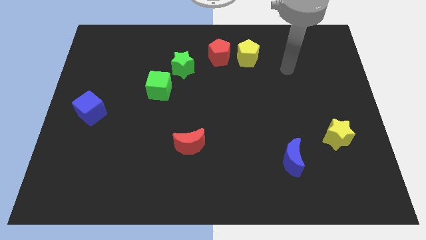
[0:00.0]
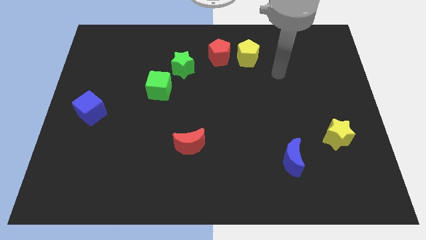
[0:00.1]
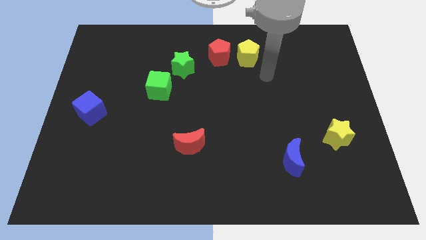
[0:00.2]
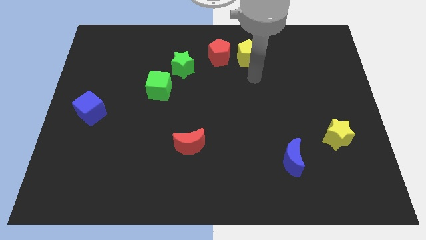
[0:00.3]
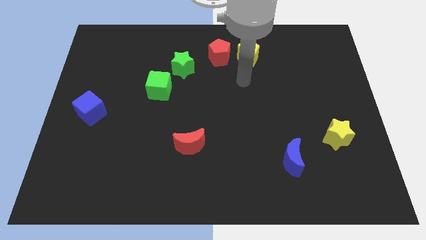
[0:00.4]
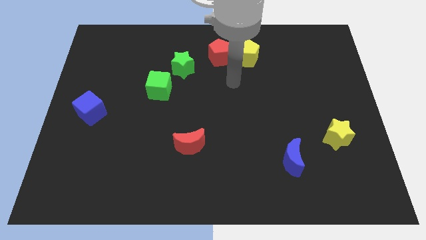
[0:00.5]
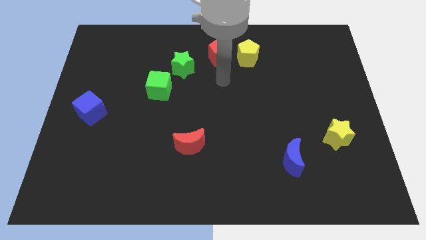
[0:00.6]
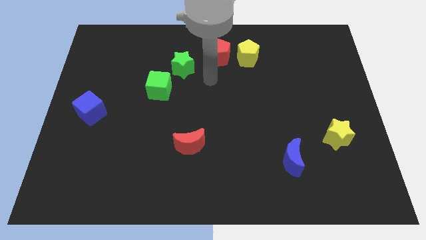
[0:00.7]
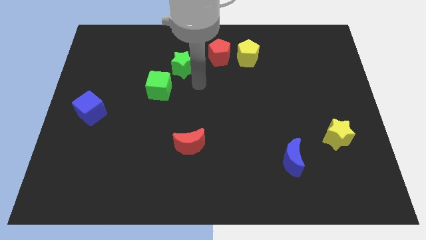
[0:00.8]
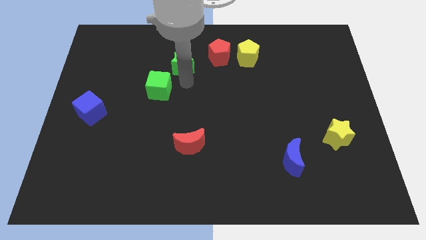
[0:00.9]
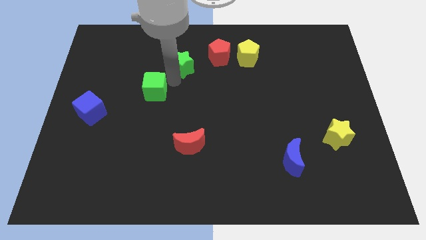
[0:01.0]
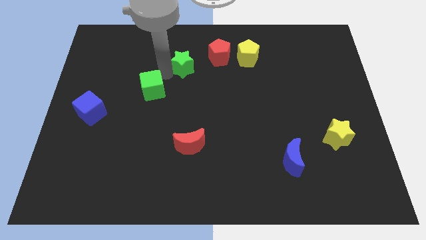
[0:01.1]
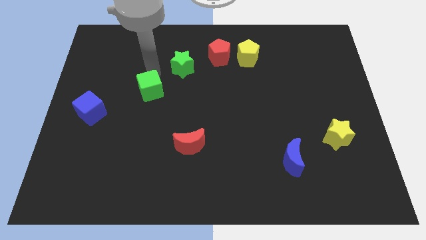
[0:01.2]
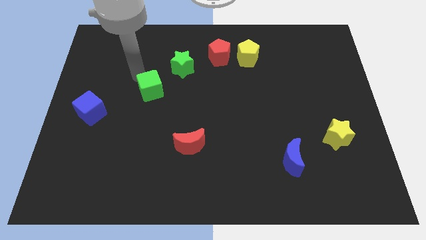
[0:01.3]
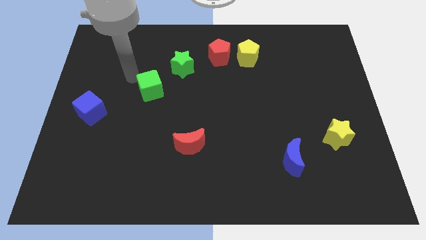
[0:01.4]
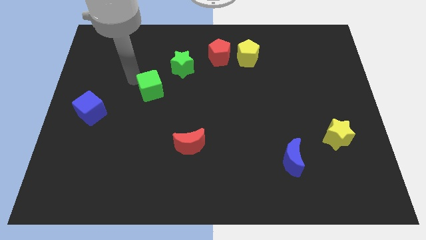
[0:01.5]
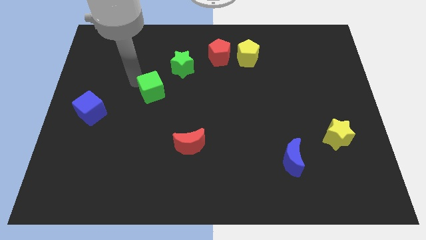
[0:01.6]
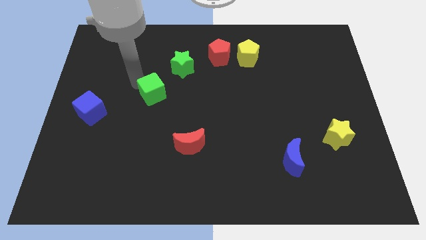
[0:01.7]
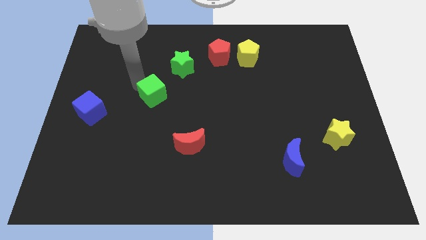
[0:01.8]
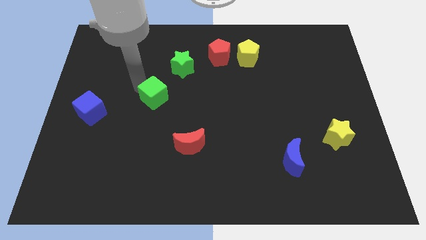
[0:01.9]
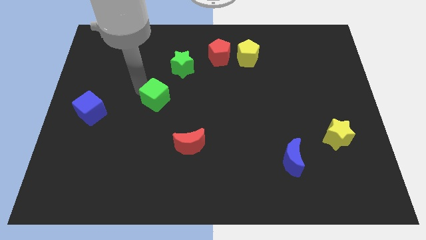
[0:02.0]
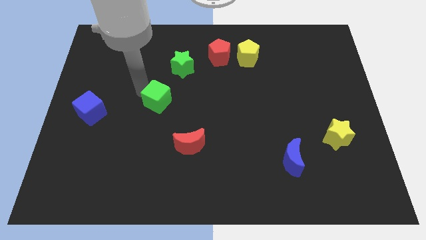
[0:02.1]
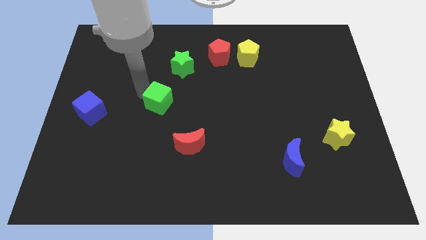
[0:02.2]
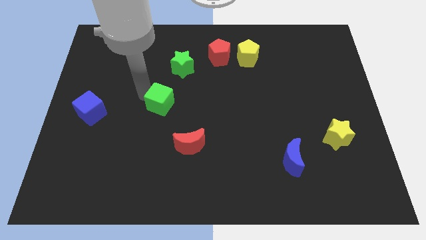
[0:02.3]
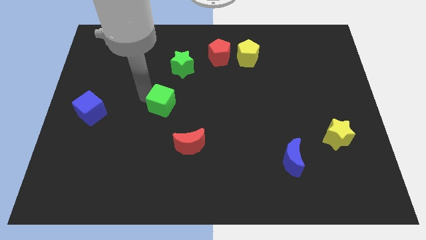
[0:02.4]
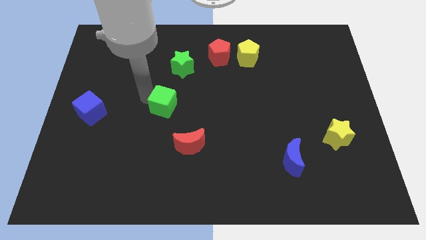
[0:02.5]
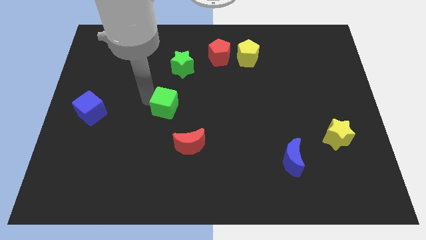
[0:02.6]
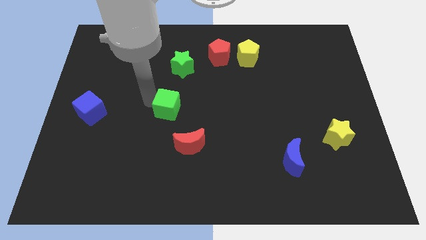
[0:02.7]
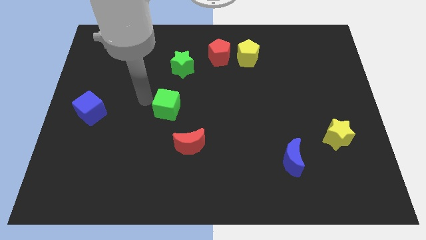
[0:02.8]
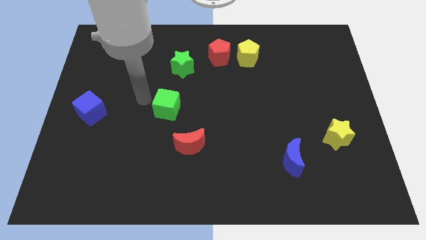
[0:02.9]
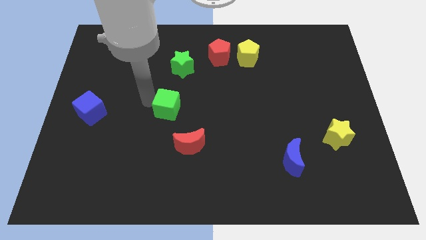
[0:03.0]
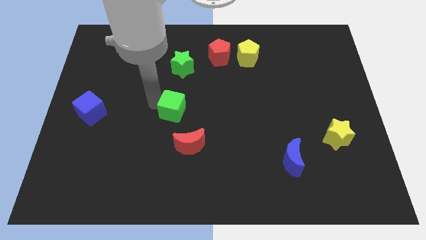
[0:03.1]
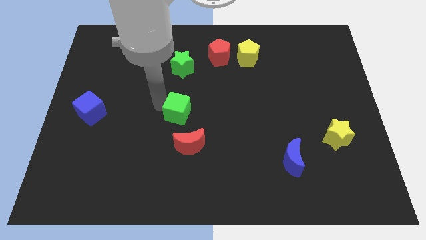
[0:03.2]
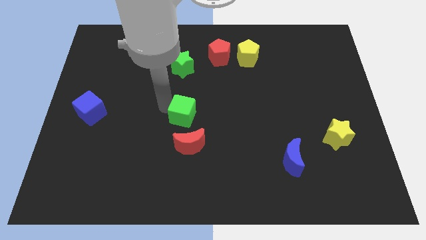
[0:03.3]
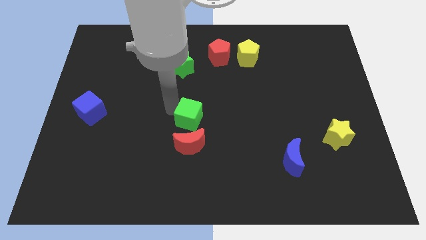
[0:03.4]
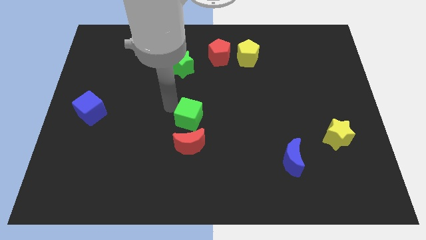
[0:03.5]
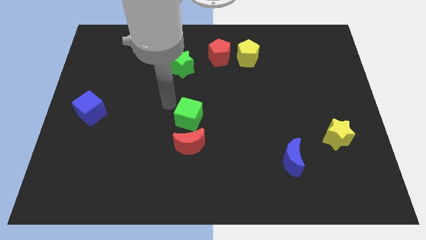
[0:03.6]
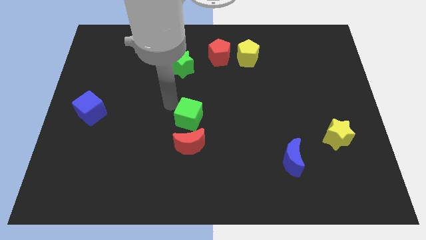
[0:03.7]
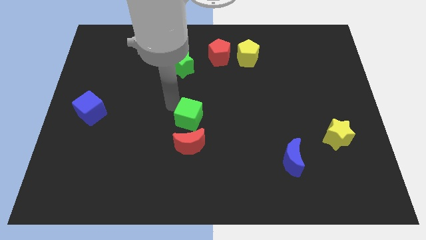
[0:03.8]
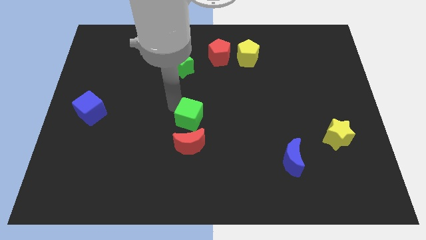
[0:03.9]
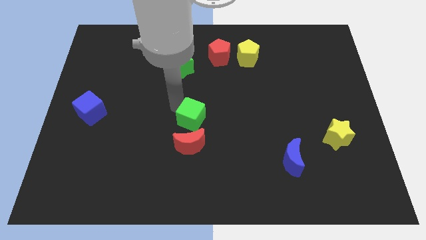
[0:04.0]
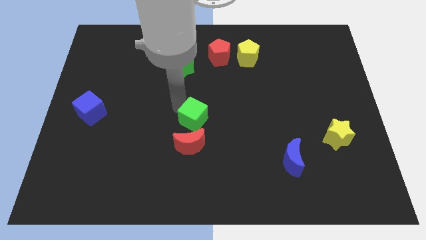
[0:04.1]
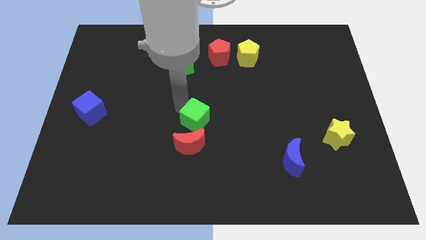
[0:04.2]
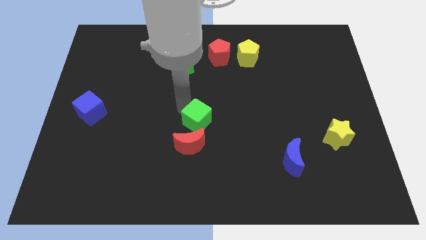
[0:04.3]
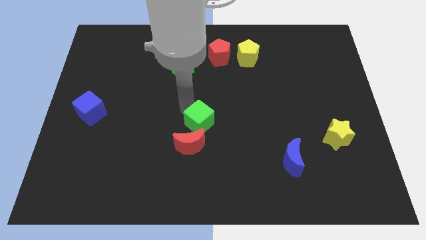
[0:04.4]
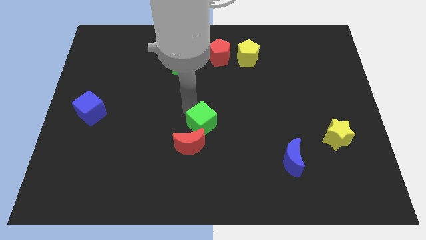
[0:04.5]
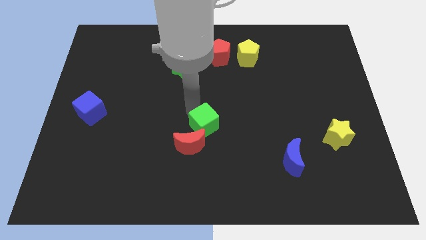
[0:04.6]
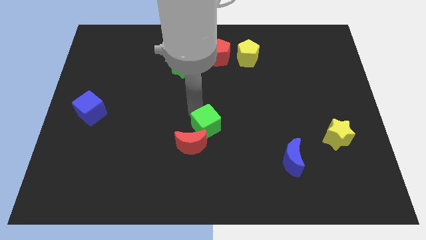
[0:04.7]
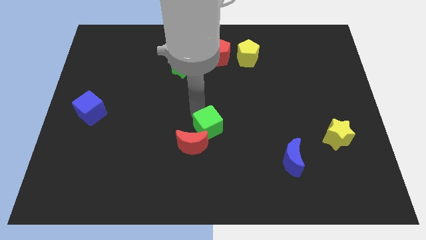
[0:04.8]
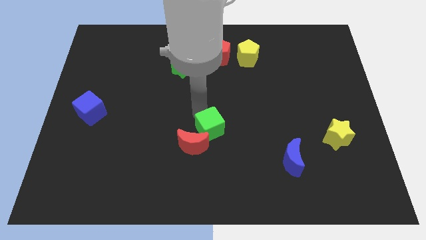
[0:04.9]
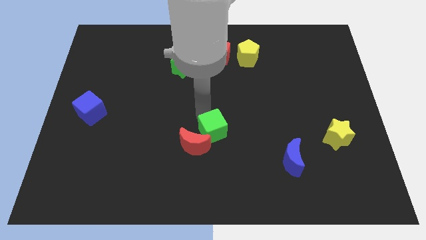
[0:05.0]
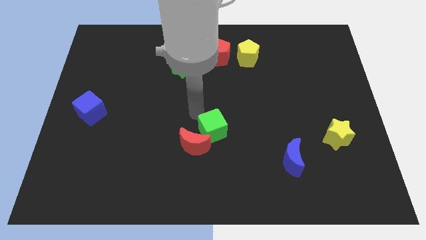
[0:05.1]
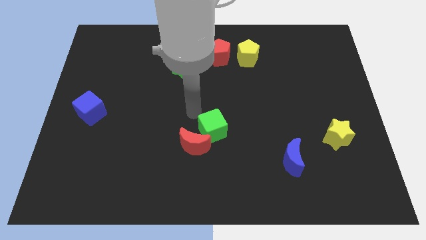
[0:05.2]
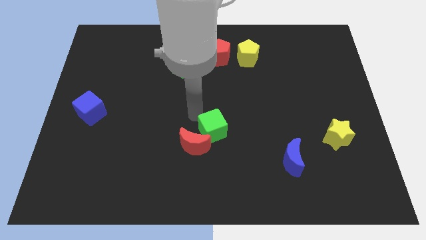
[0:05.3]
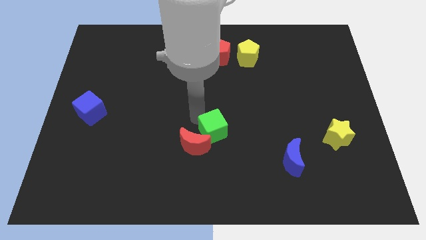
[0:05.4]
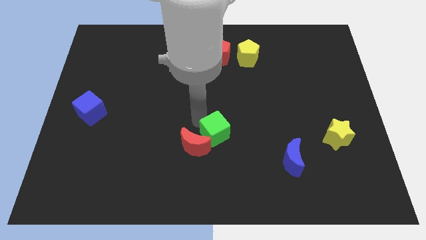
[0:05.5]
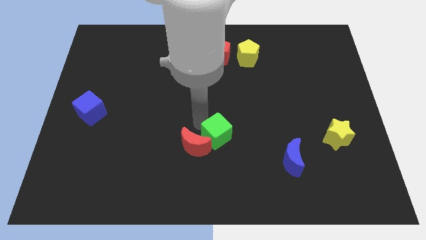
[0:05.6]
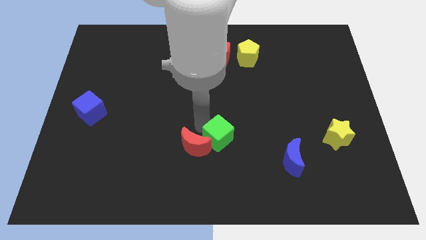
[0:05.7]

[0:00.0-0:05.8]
push the green cube diagonally down and right

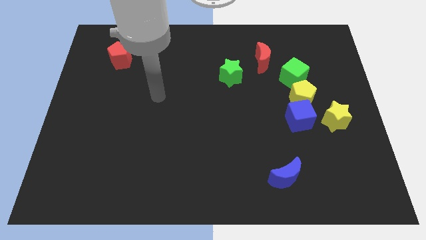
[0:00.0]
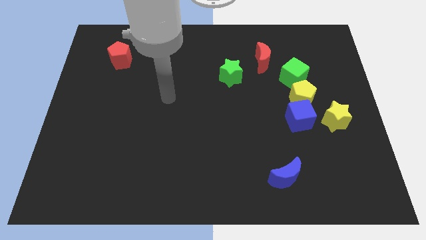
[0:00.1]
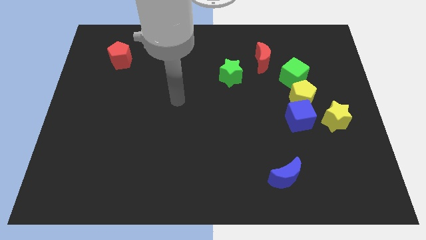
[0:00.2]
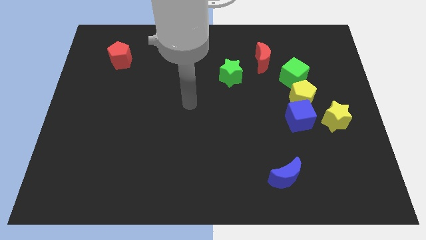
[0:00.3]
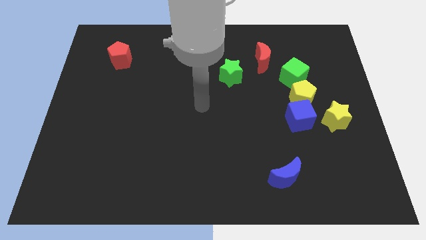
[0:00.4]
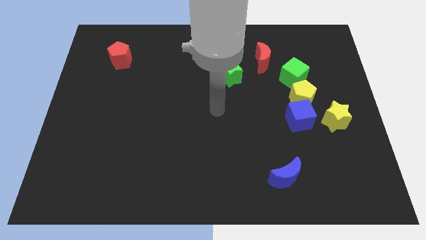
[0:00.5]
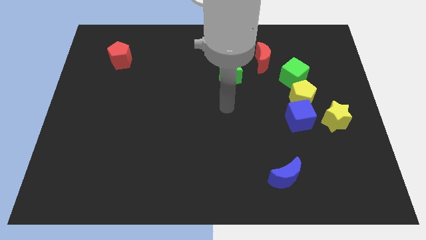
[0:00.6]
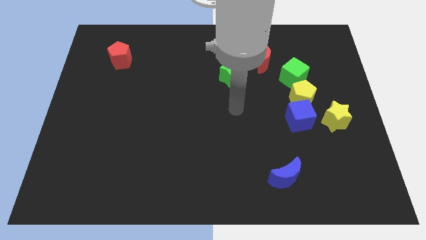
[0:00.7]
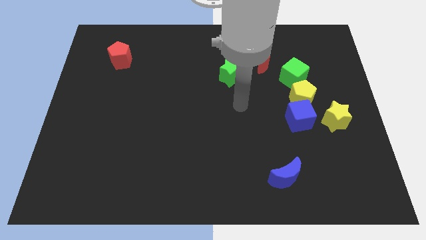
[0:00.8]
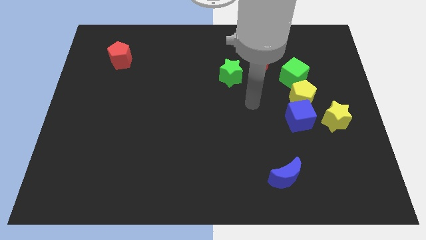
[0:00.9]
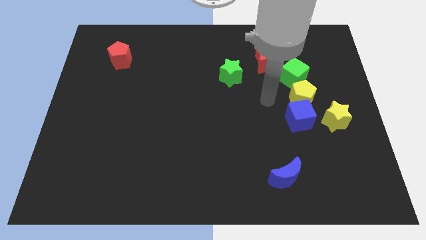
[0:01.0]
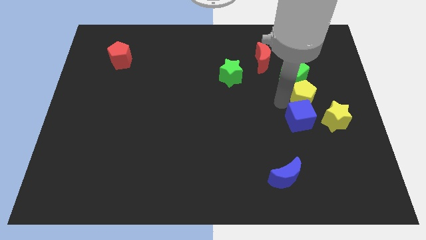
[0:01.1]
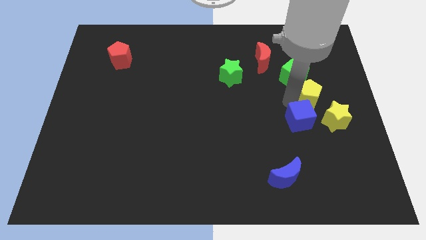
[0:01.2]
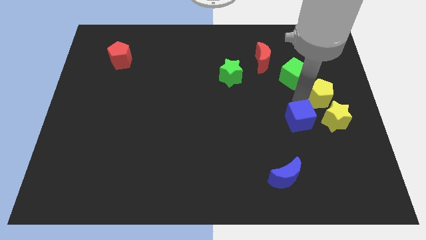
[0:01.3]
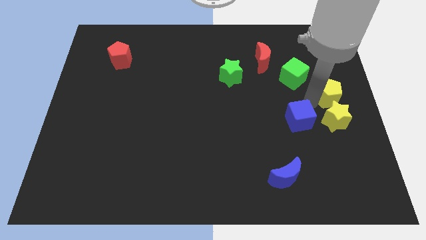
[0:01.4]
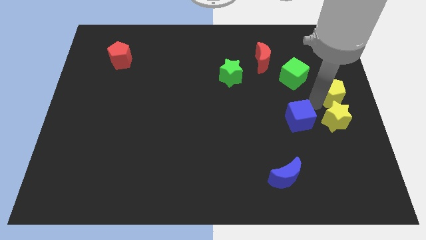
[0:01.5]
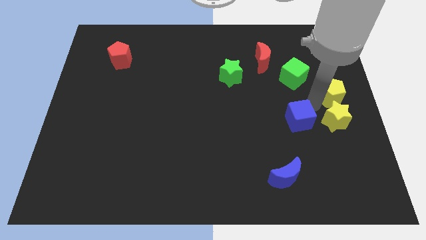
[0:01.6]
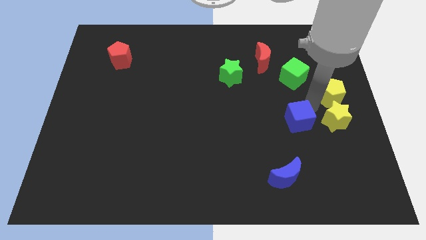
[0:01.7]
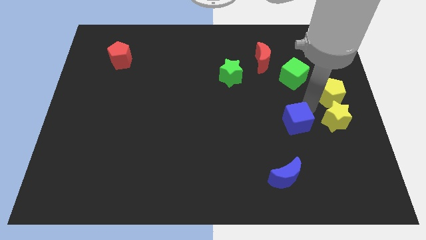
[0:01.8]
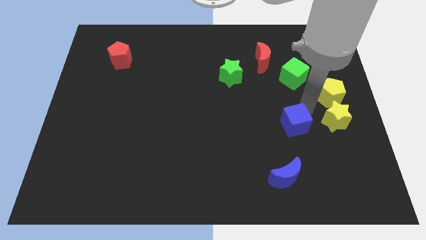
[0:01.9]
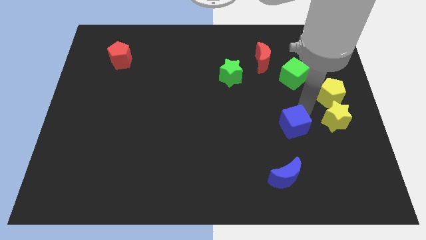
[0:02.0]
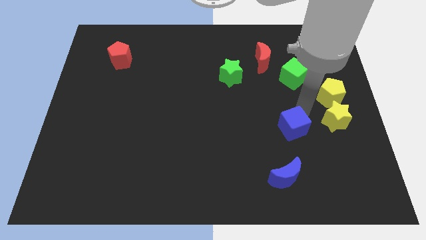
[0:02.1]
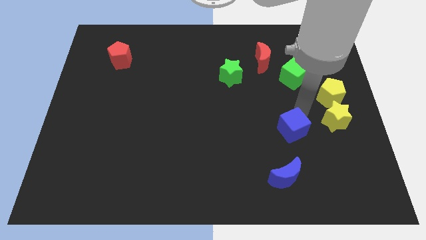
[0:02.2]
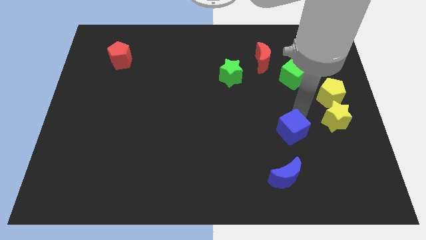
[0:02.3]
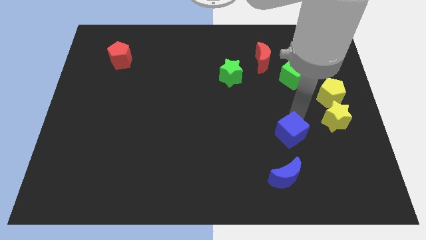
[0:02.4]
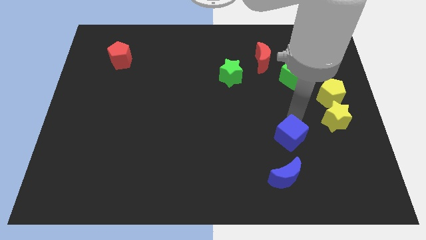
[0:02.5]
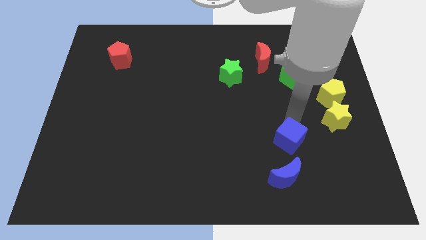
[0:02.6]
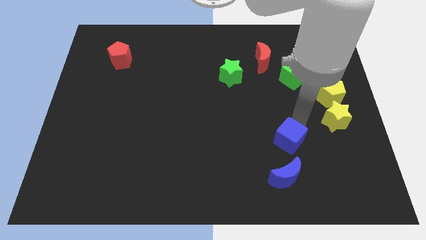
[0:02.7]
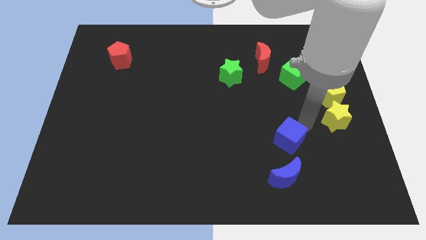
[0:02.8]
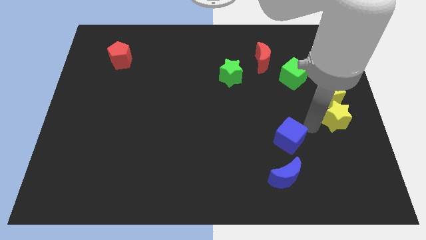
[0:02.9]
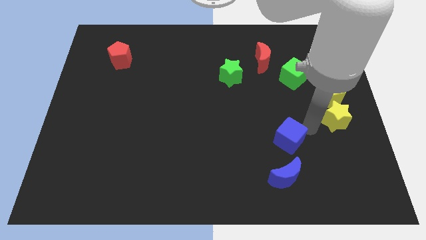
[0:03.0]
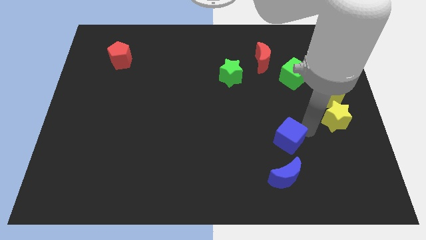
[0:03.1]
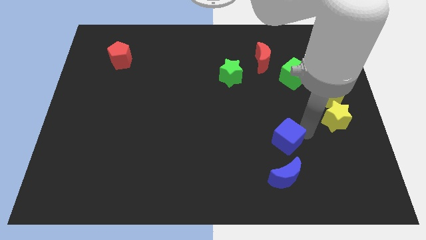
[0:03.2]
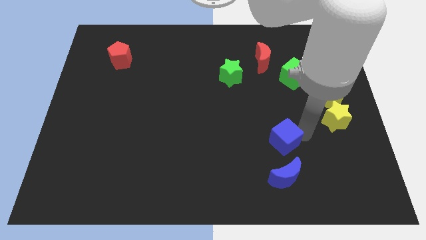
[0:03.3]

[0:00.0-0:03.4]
move the blue cube downwards and left a little
